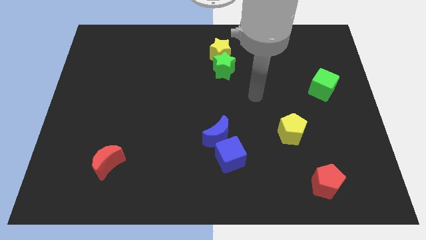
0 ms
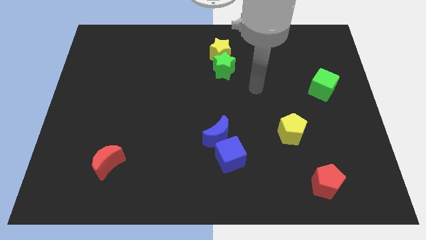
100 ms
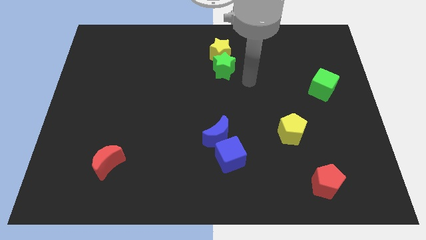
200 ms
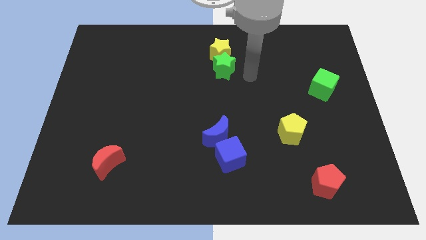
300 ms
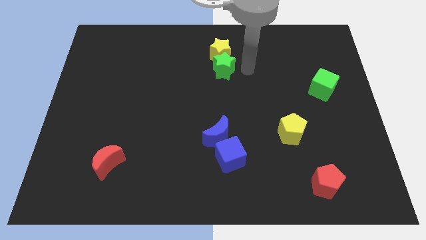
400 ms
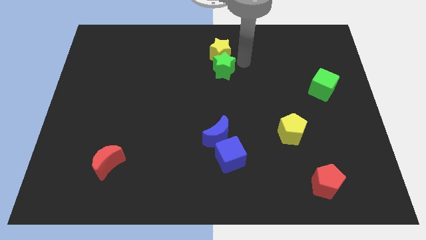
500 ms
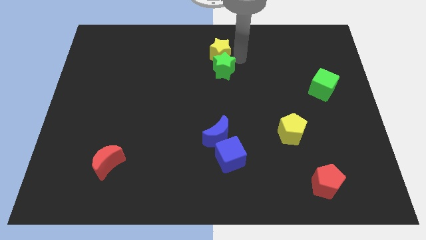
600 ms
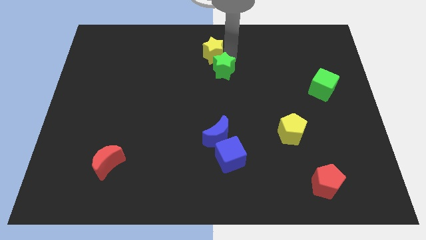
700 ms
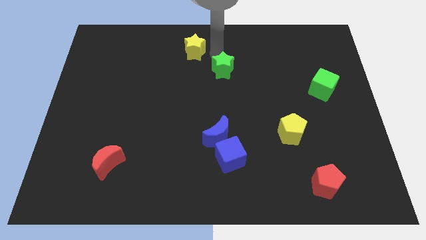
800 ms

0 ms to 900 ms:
move the green star away from the yellow star

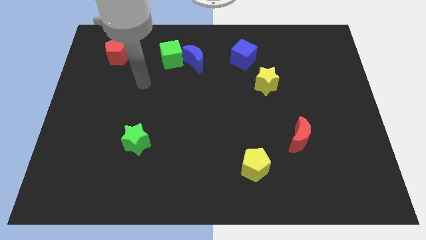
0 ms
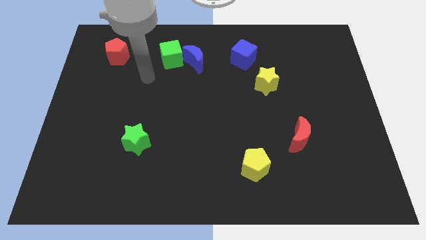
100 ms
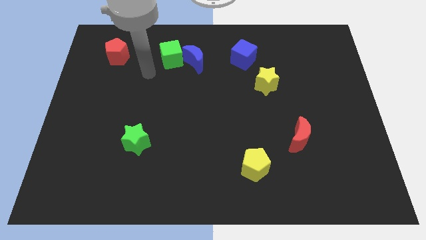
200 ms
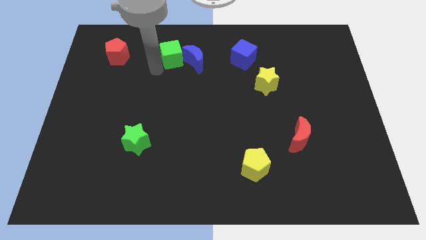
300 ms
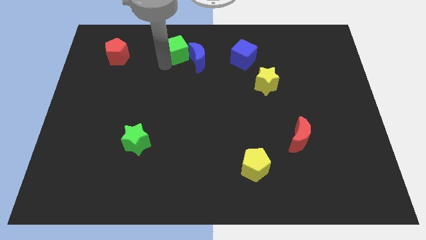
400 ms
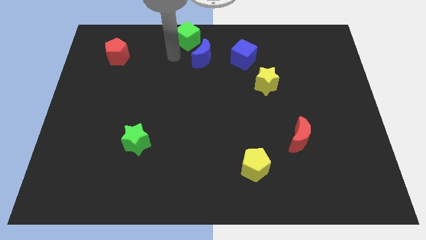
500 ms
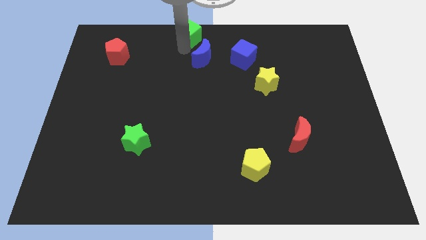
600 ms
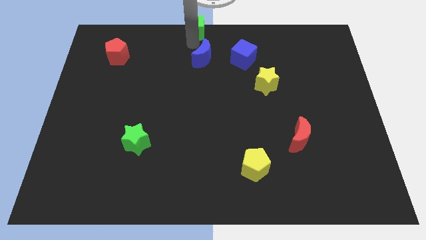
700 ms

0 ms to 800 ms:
pull the blue moon apart from the green cube

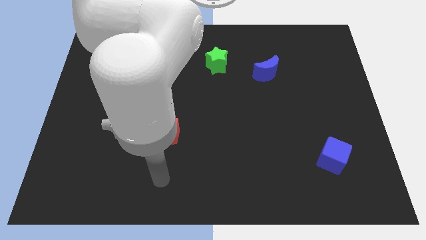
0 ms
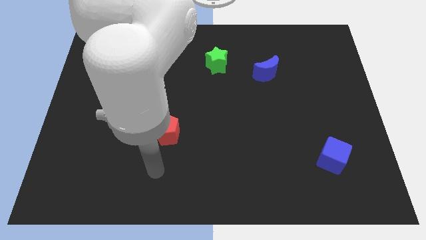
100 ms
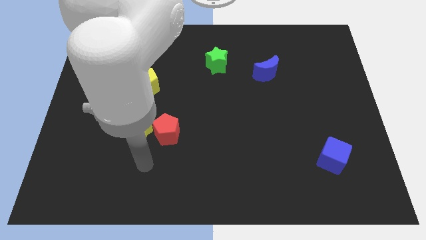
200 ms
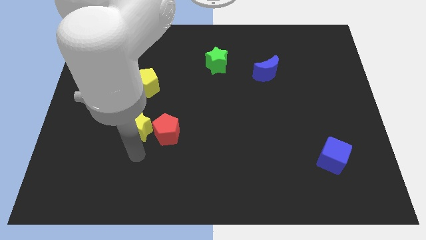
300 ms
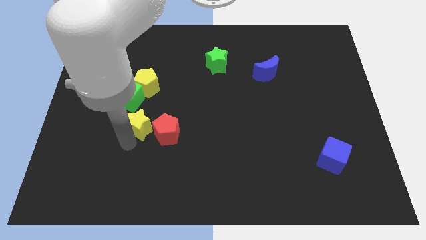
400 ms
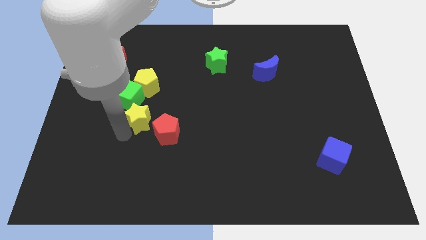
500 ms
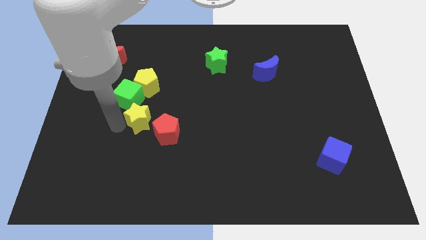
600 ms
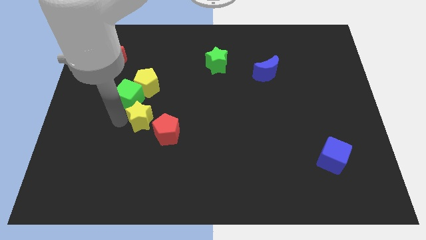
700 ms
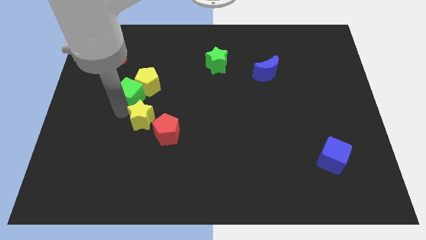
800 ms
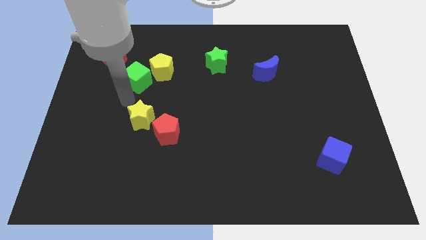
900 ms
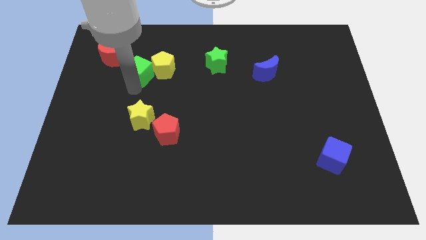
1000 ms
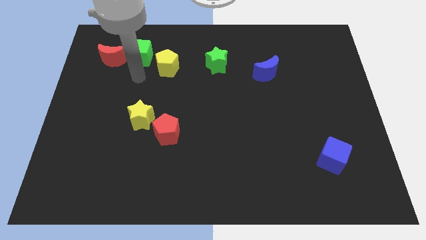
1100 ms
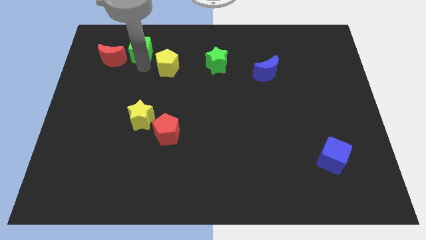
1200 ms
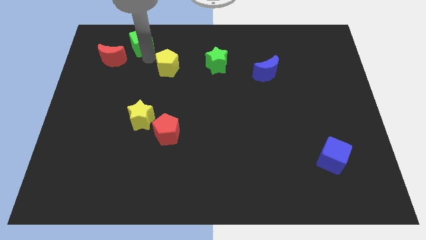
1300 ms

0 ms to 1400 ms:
pull the yellow pentagon apart from the green cube

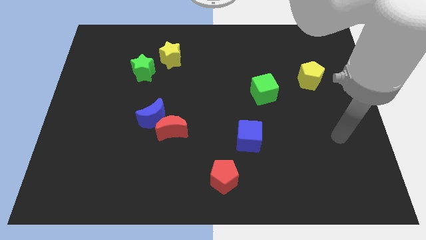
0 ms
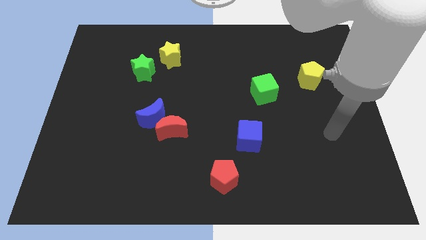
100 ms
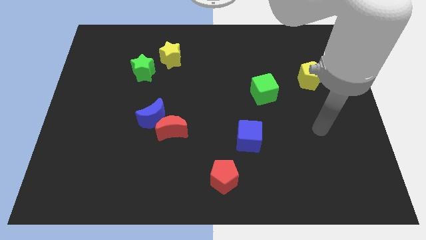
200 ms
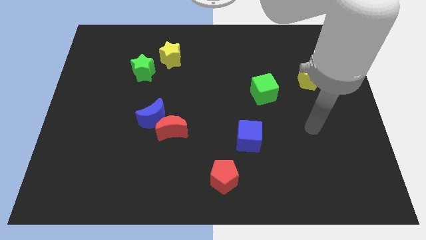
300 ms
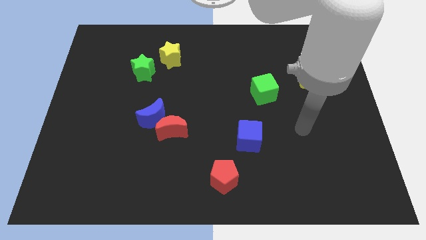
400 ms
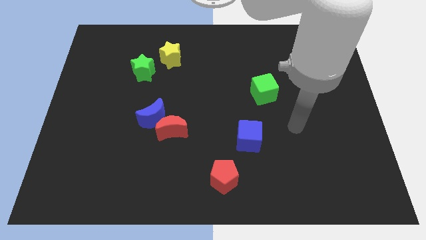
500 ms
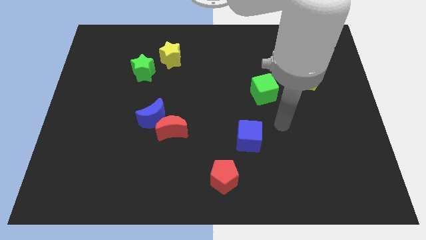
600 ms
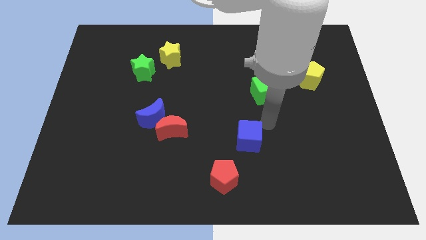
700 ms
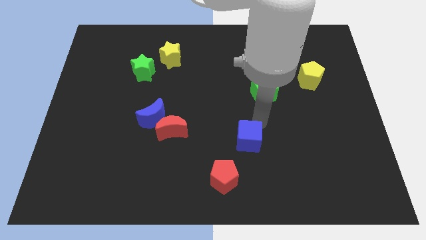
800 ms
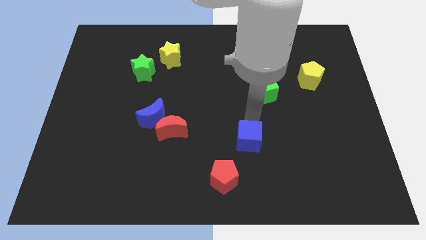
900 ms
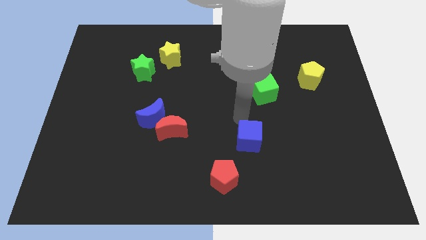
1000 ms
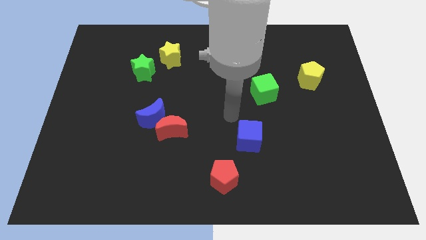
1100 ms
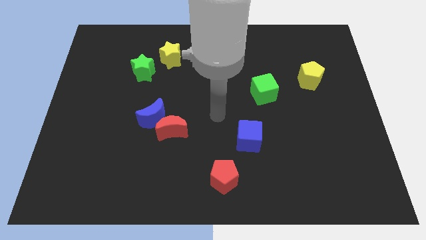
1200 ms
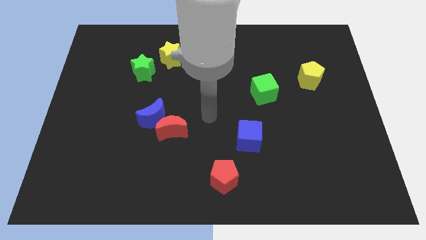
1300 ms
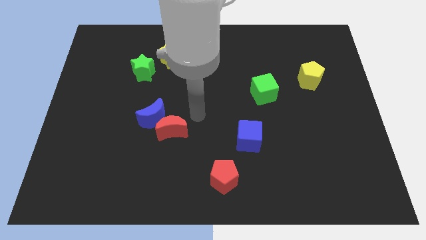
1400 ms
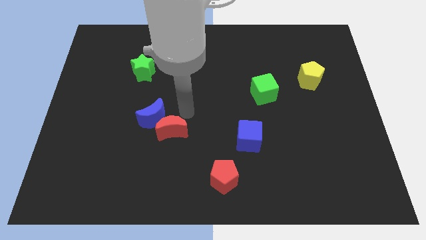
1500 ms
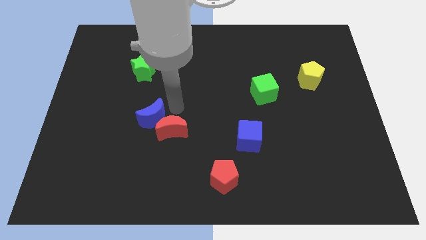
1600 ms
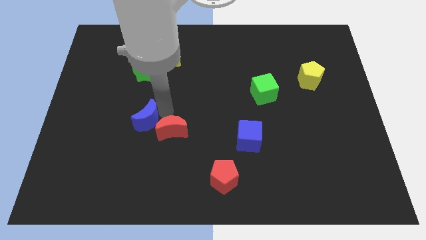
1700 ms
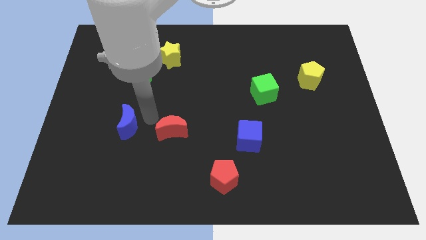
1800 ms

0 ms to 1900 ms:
move the red moon away from the blue moon

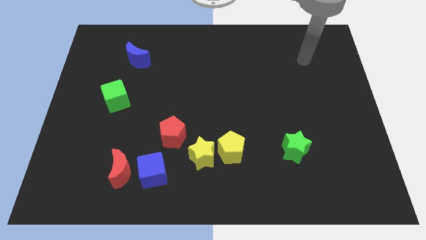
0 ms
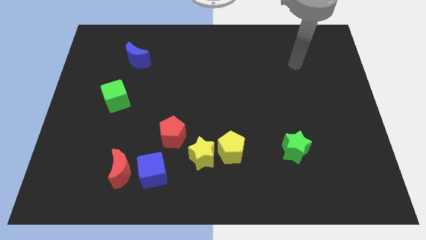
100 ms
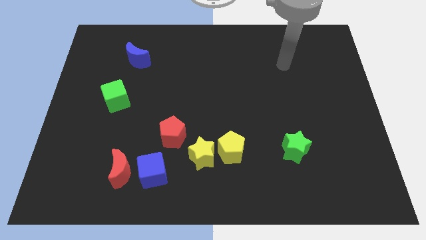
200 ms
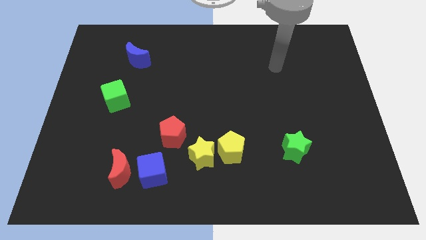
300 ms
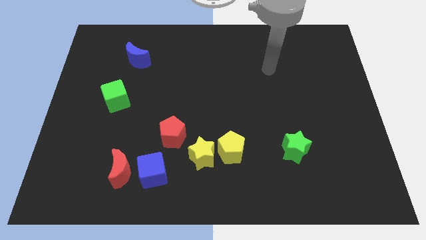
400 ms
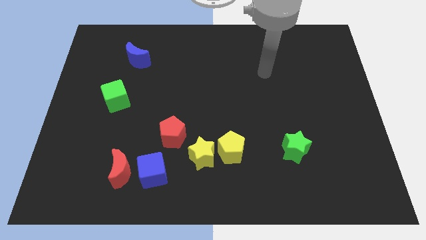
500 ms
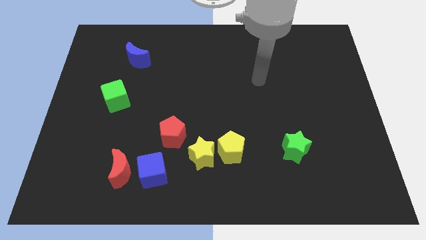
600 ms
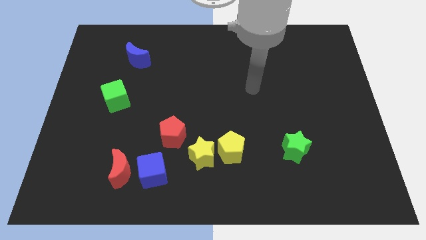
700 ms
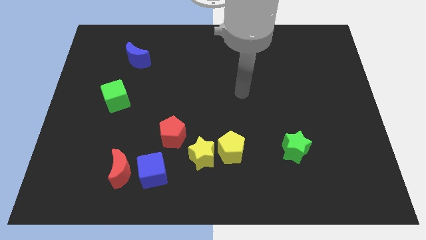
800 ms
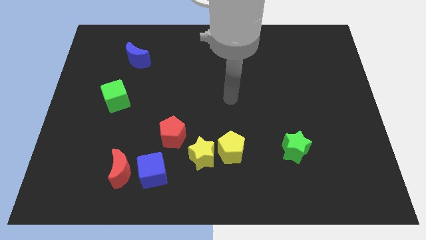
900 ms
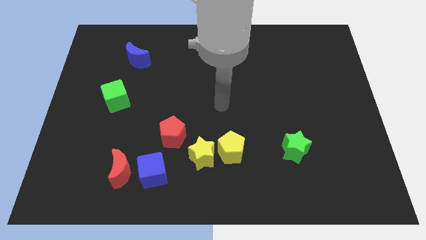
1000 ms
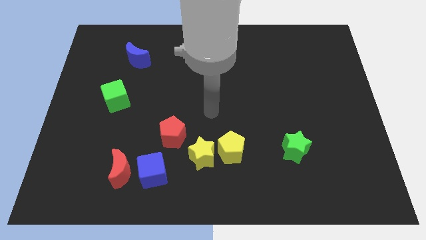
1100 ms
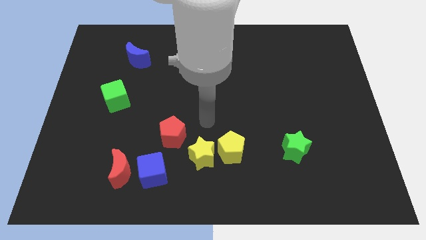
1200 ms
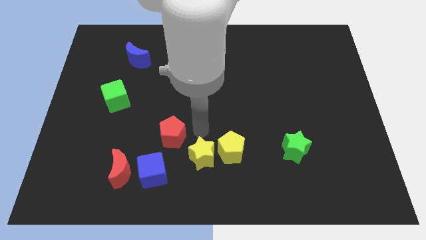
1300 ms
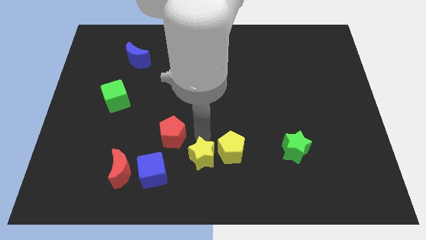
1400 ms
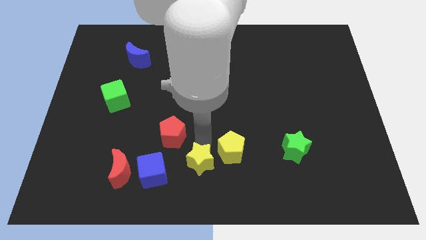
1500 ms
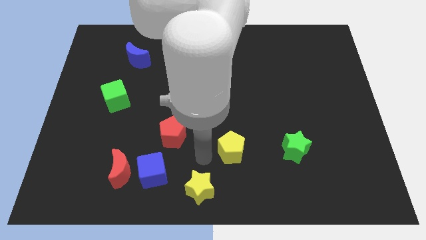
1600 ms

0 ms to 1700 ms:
pull the yellow pentagon apart from the yellow star

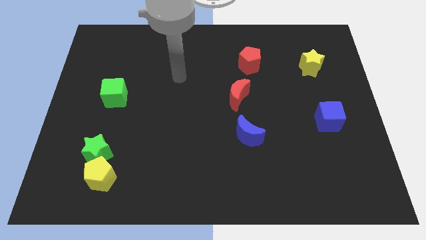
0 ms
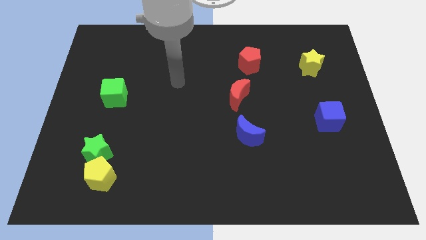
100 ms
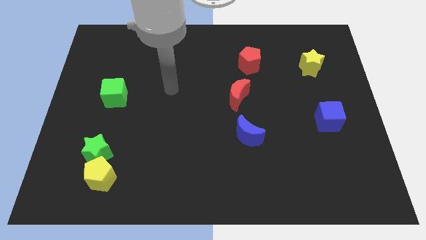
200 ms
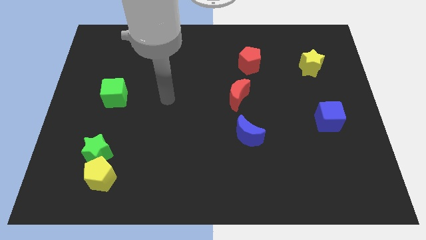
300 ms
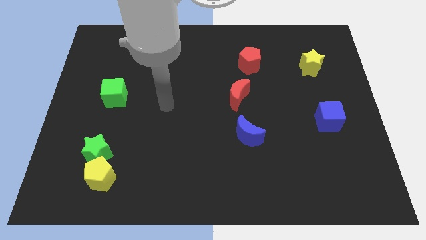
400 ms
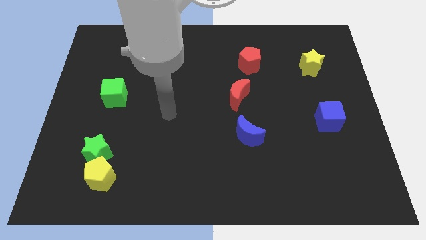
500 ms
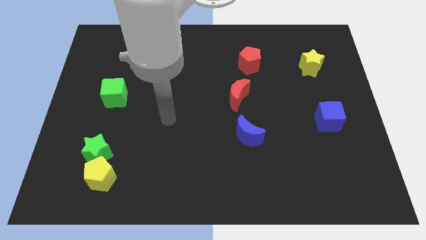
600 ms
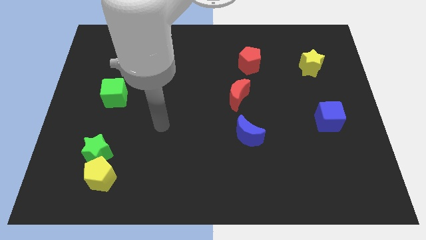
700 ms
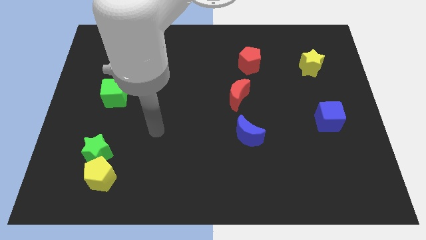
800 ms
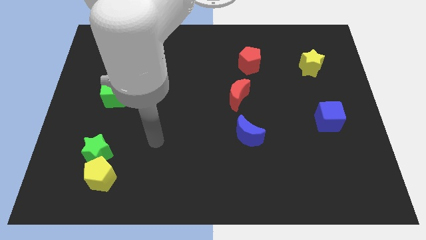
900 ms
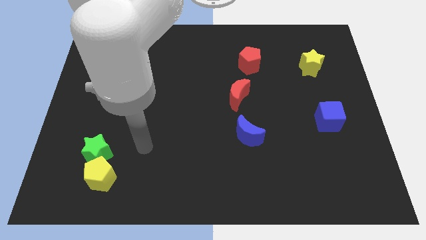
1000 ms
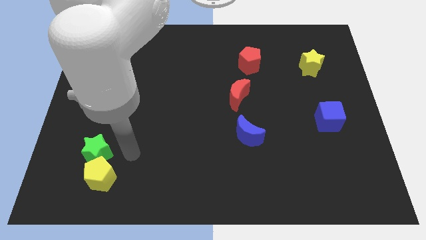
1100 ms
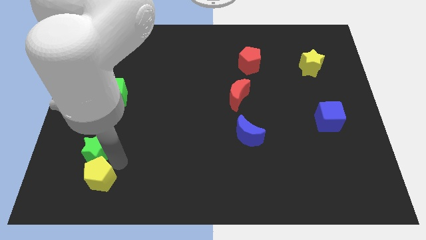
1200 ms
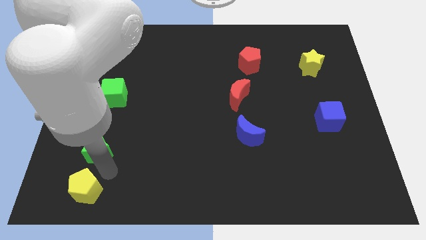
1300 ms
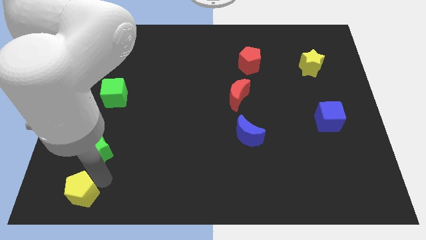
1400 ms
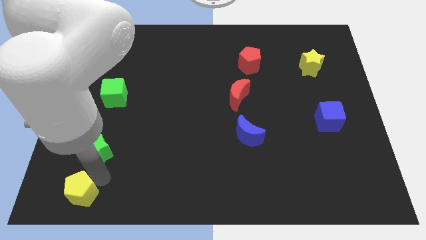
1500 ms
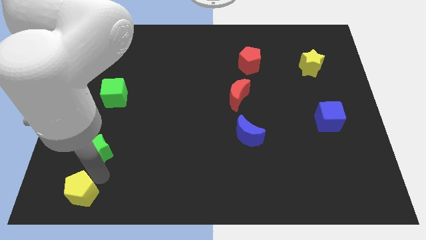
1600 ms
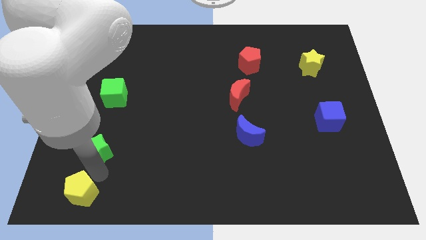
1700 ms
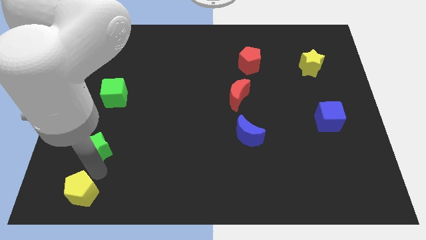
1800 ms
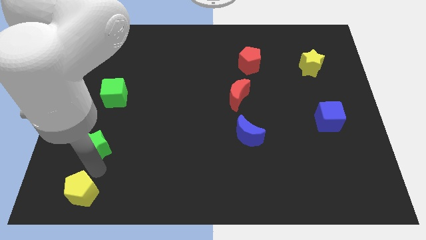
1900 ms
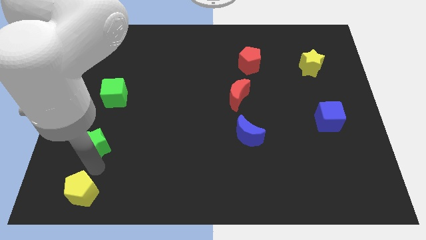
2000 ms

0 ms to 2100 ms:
separate the green star from the yellow pentagon

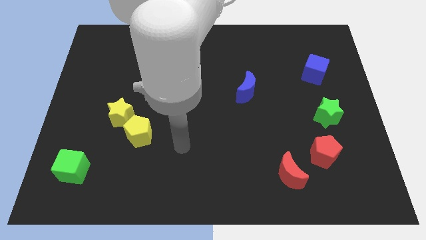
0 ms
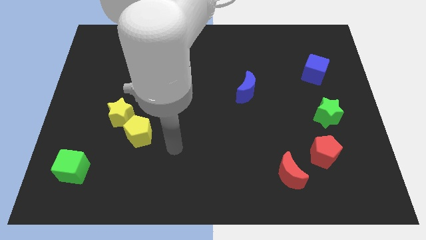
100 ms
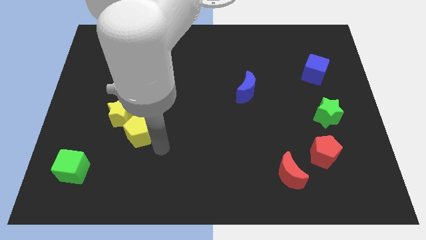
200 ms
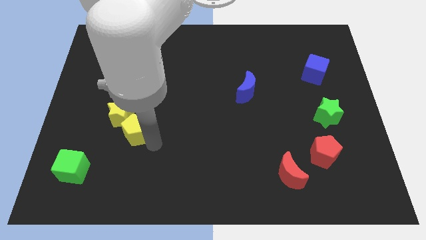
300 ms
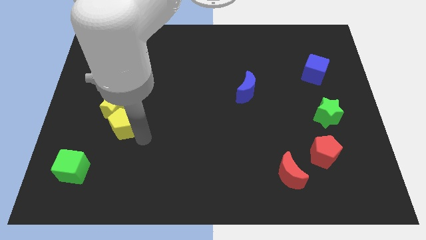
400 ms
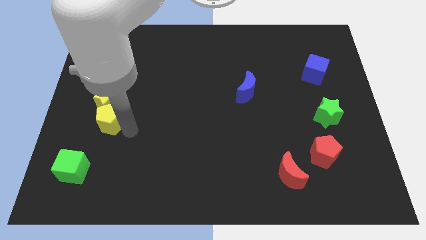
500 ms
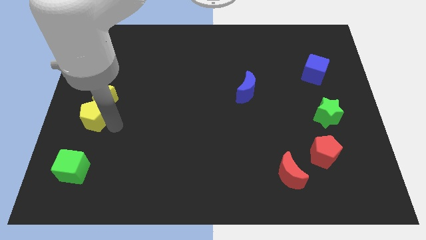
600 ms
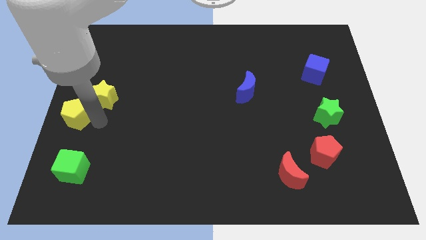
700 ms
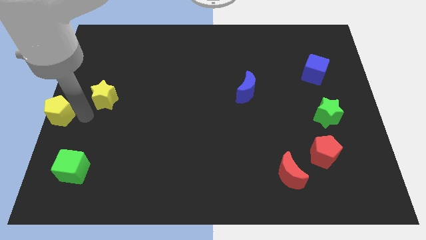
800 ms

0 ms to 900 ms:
pull the yellow star apart from the yellow pentagon
